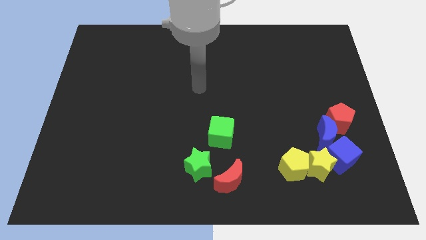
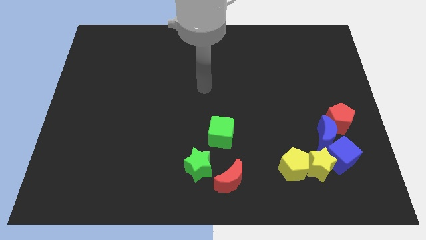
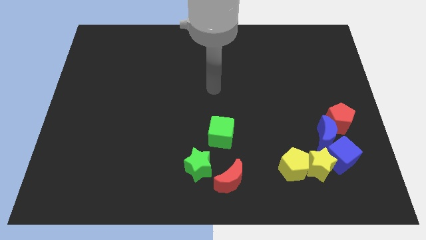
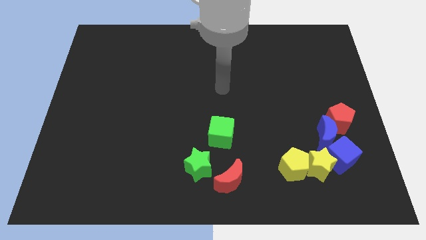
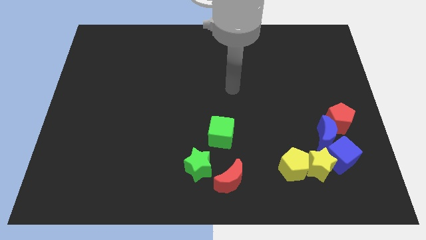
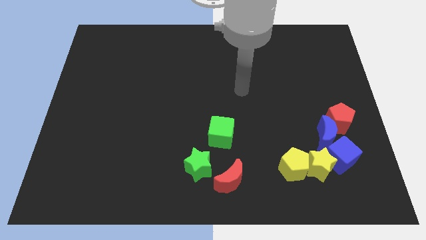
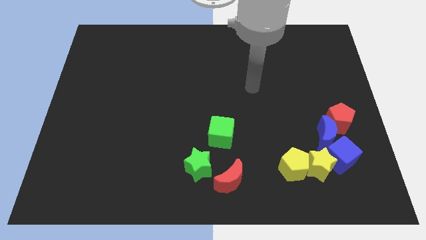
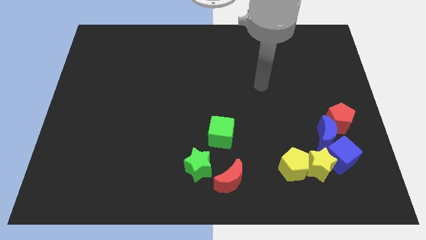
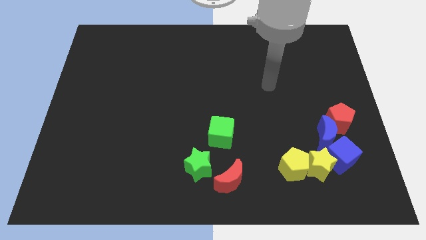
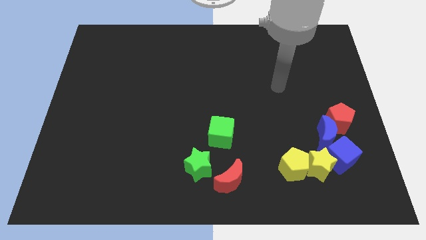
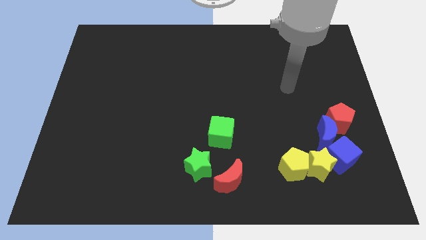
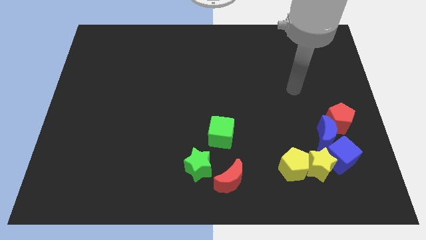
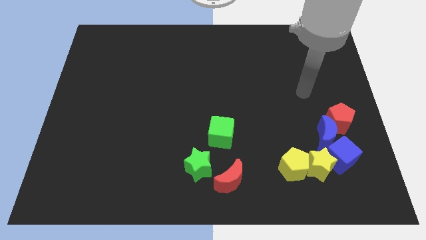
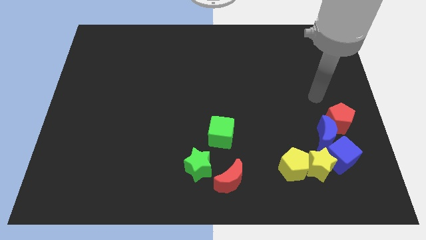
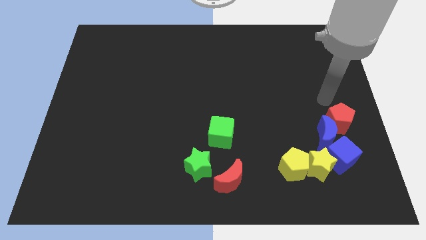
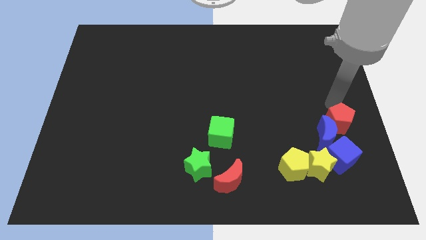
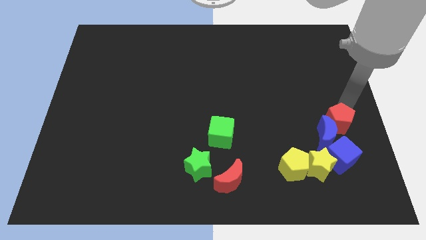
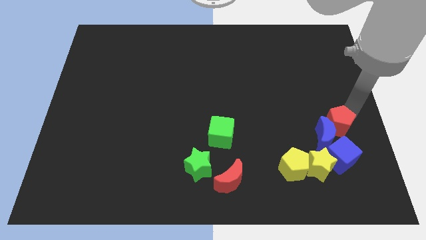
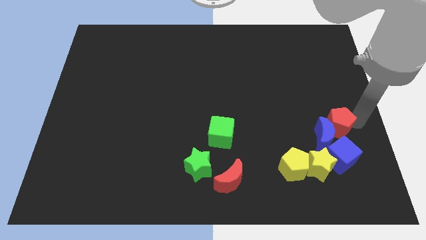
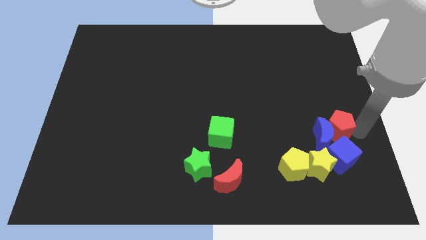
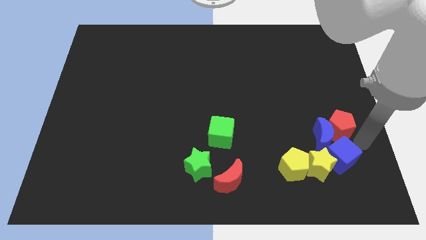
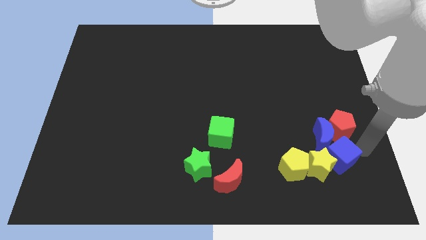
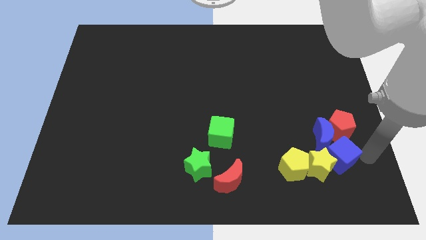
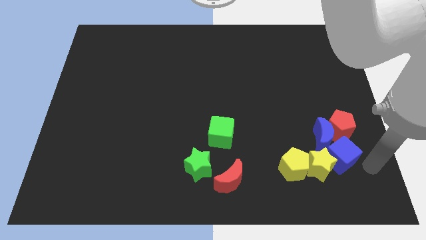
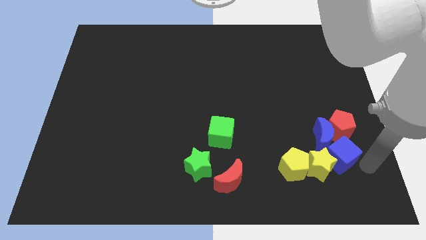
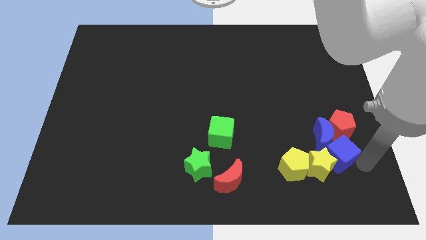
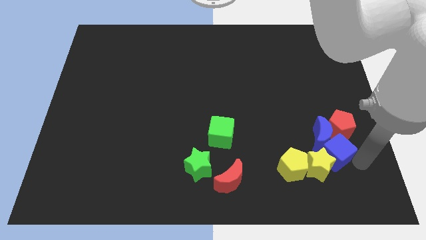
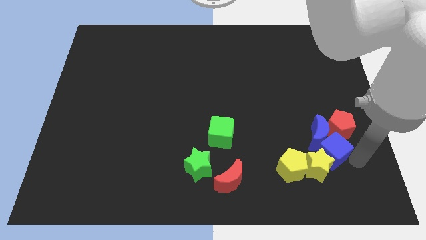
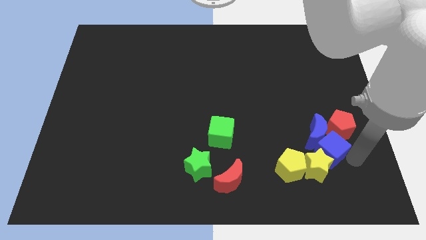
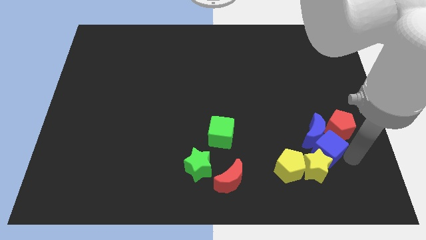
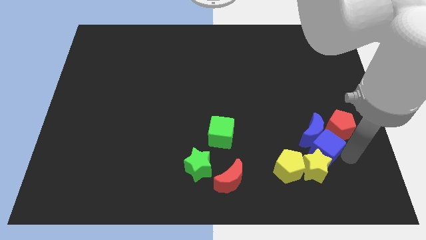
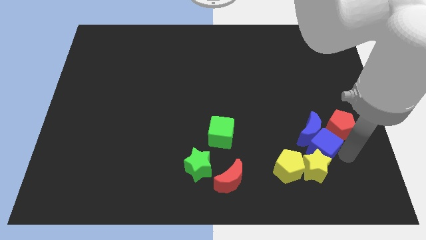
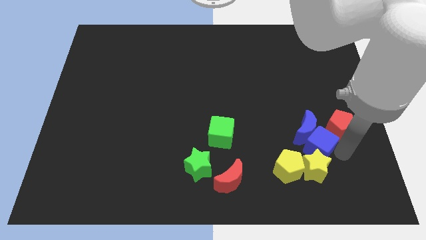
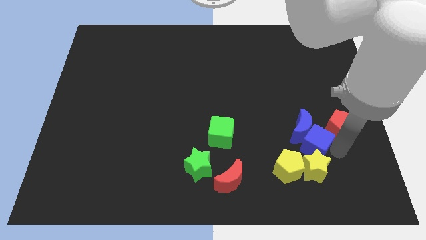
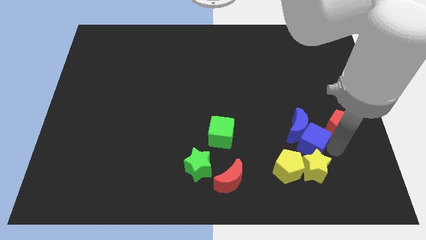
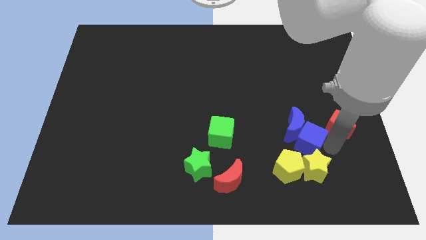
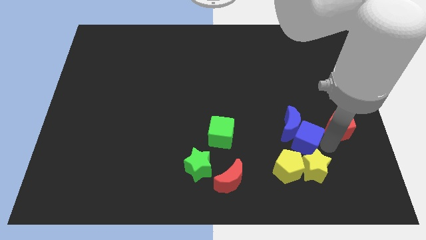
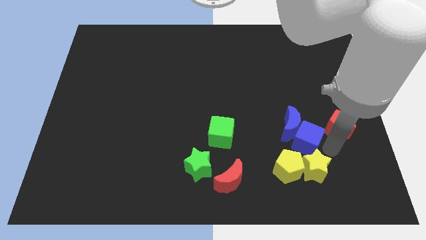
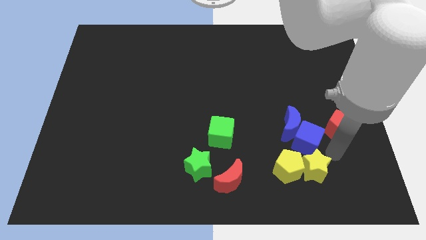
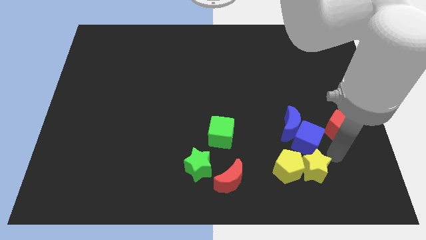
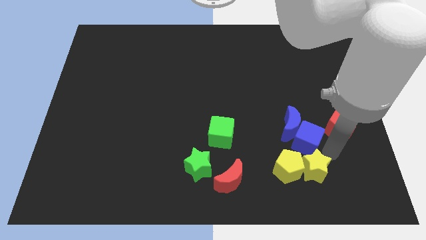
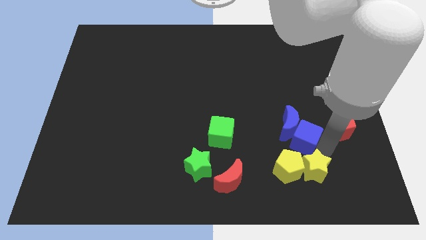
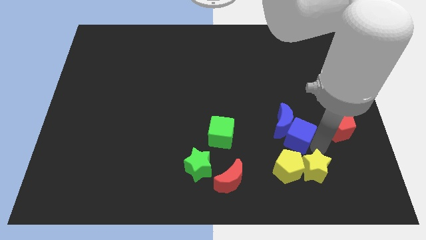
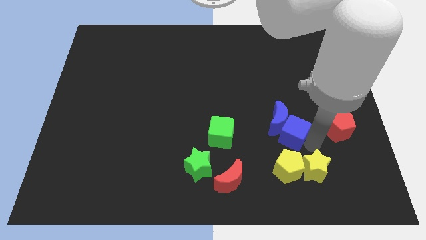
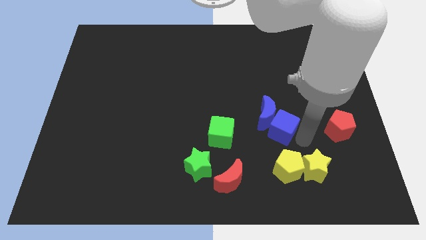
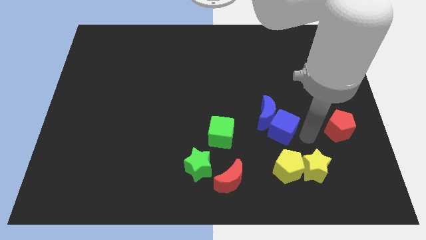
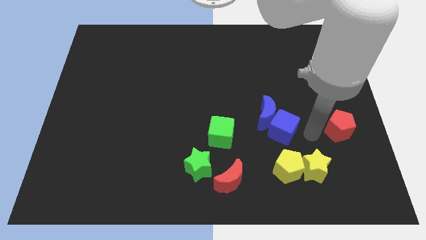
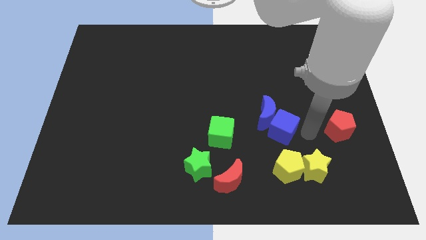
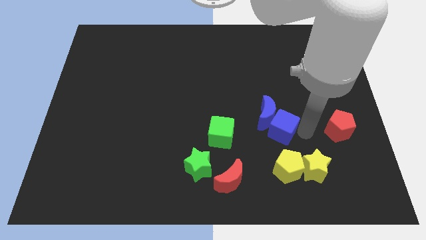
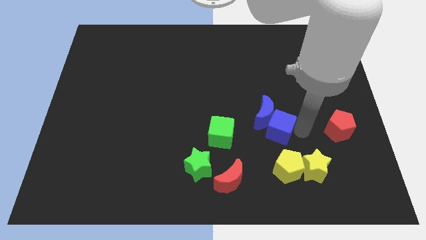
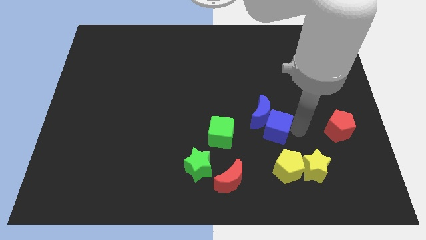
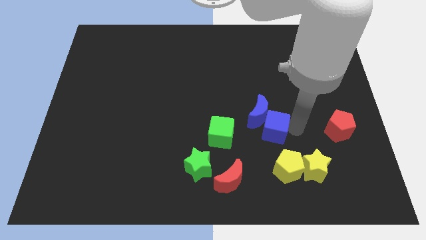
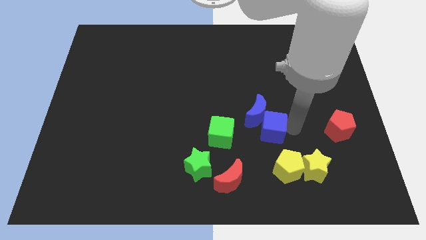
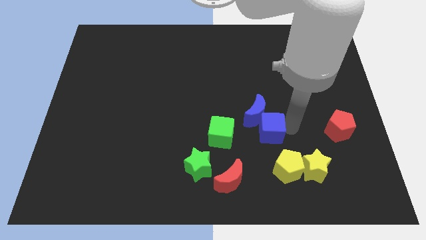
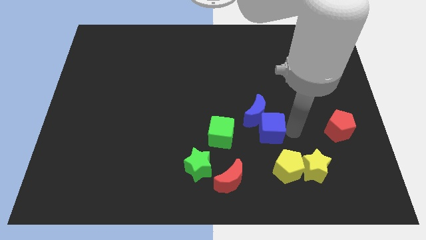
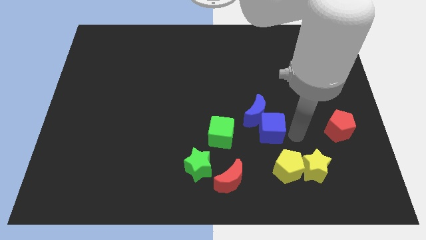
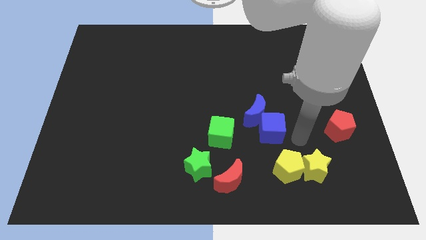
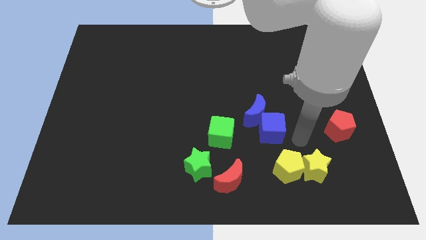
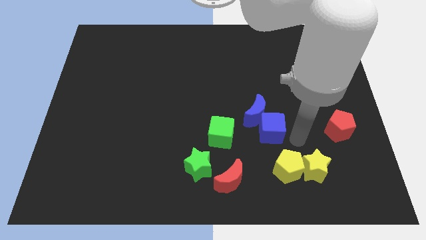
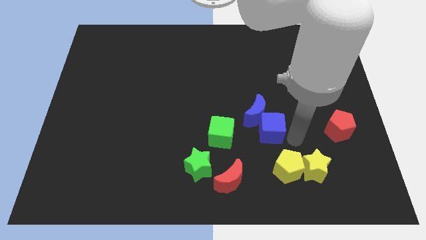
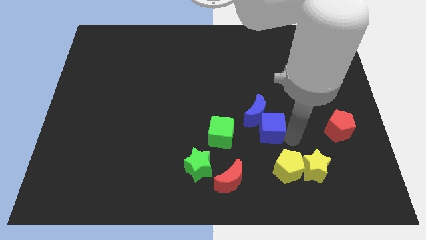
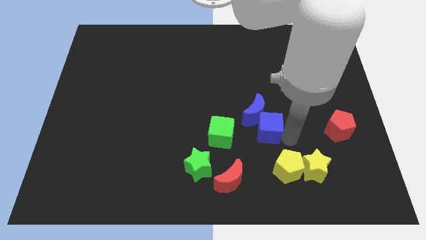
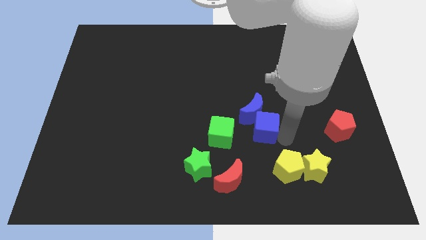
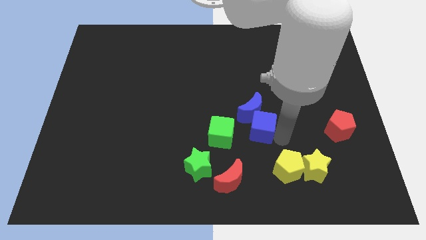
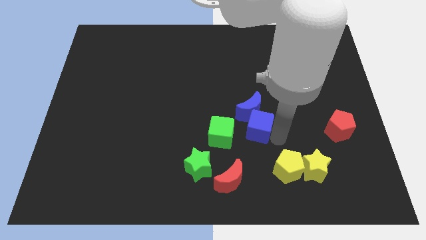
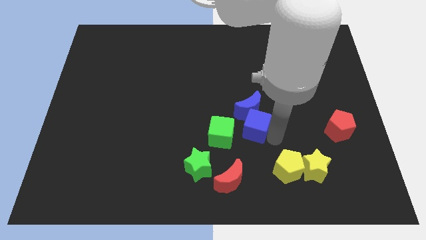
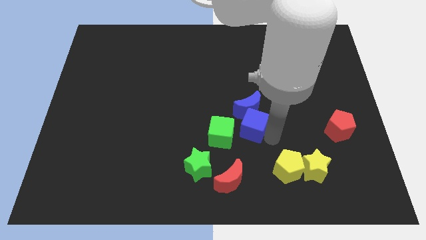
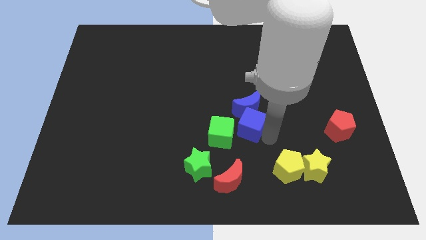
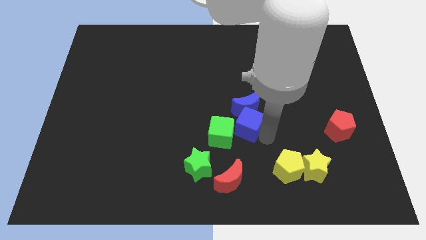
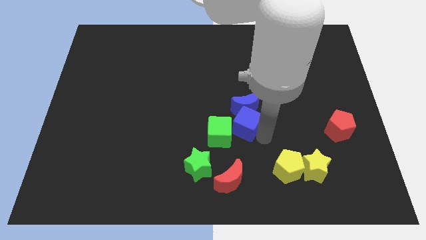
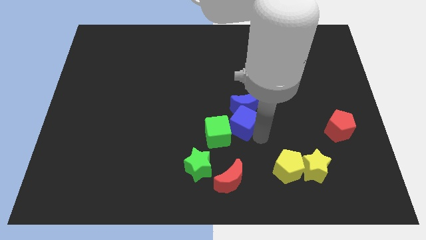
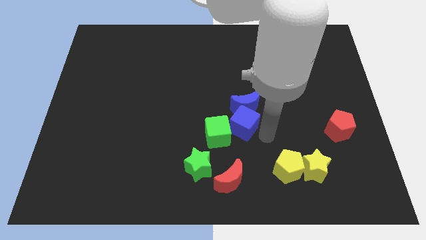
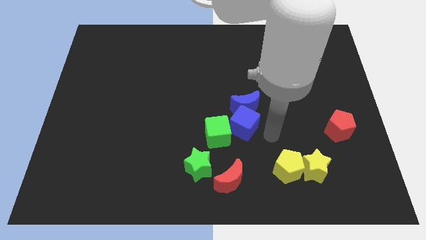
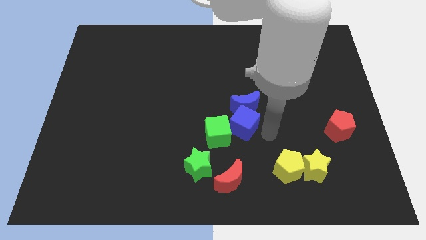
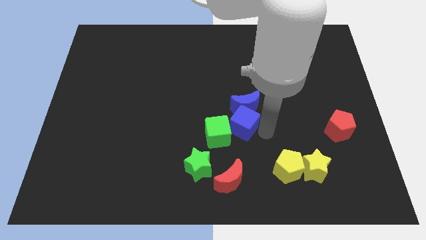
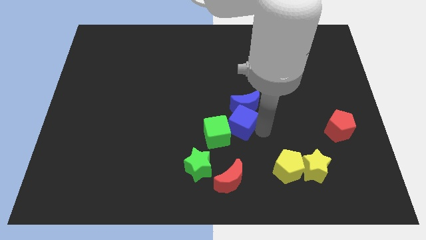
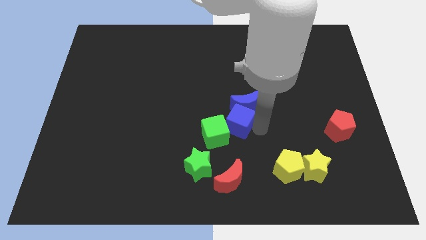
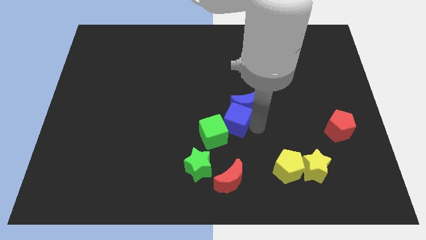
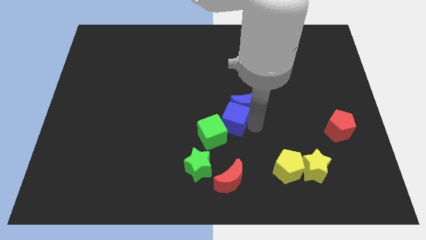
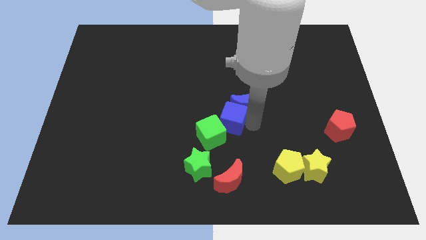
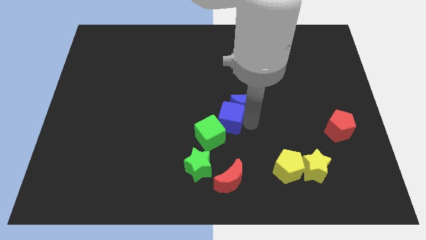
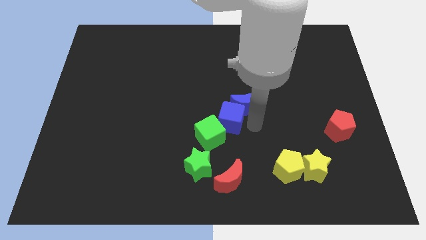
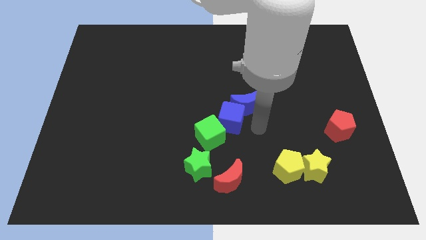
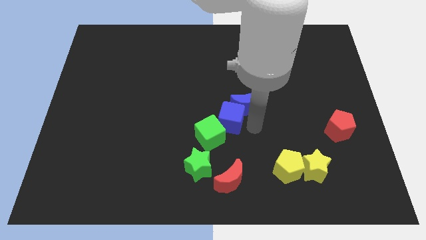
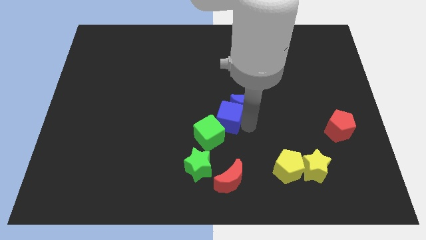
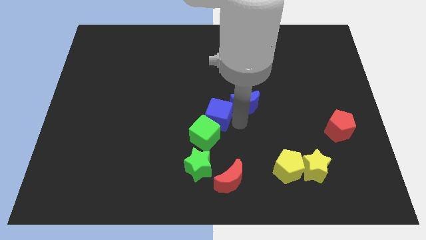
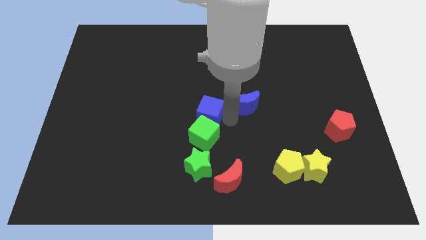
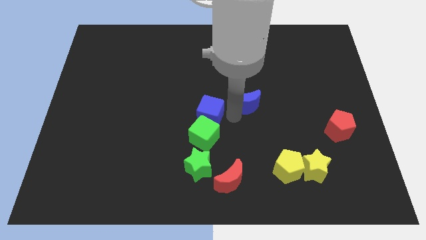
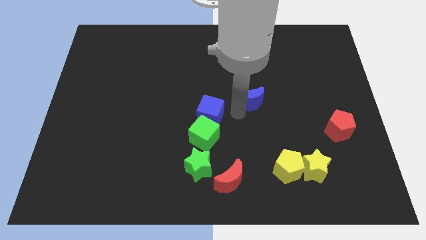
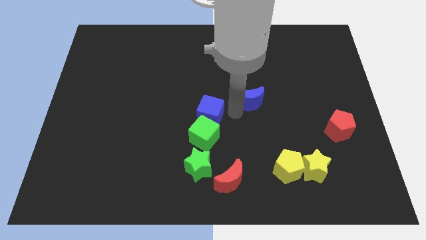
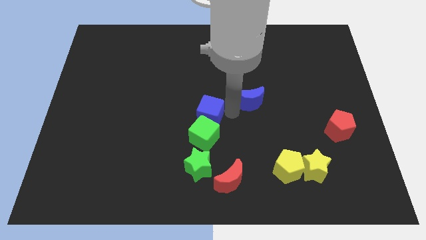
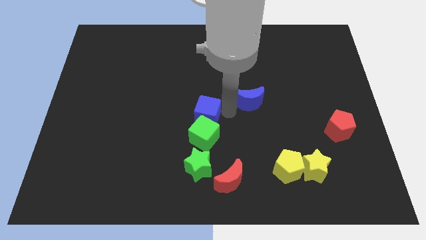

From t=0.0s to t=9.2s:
slide the blue cube diagonally up and to the left of the green cube
